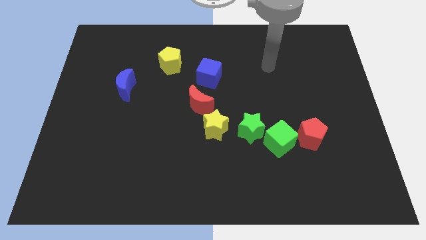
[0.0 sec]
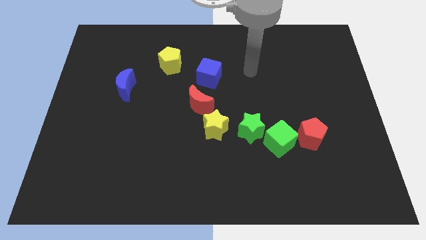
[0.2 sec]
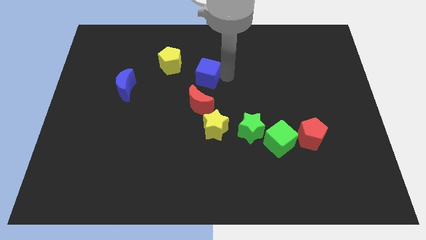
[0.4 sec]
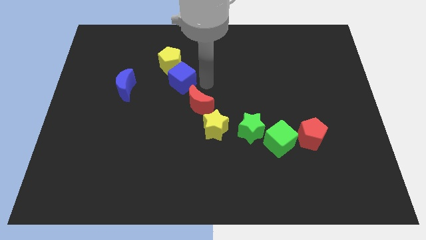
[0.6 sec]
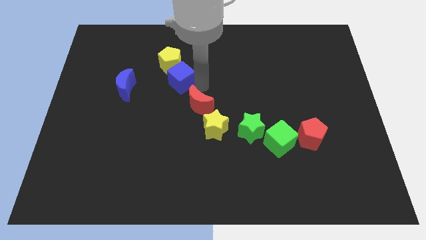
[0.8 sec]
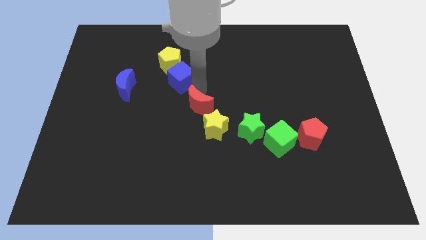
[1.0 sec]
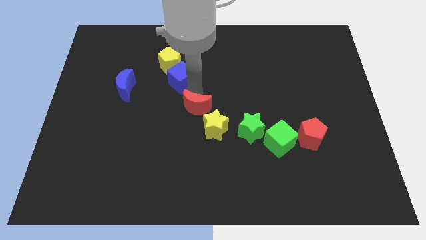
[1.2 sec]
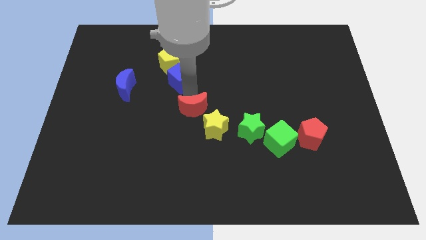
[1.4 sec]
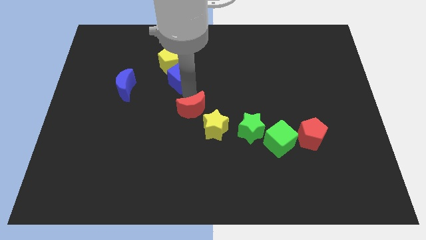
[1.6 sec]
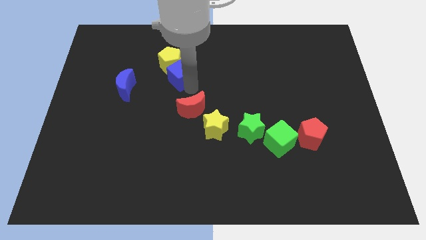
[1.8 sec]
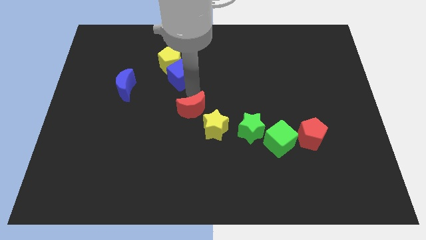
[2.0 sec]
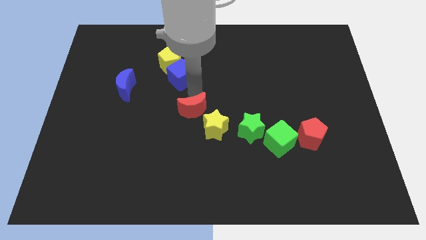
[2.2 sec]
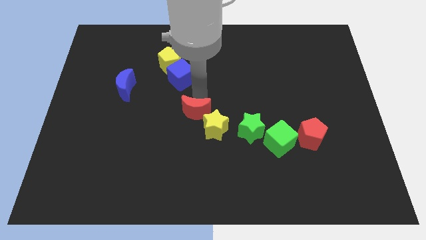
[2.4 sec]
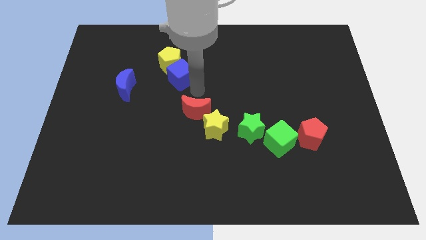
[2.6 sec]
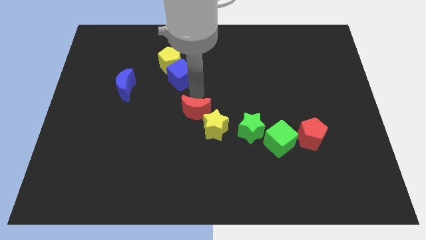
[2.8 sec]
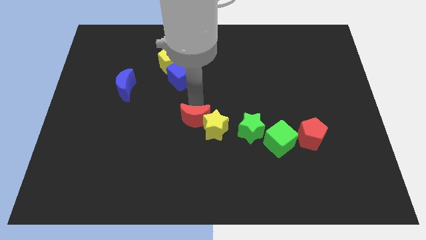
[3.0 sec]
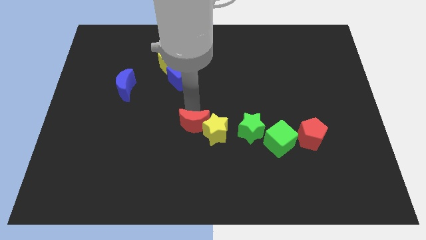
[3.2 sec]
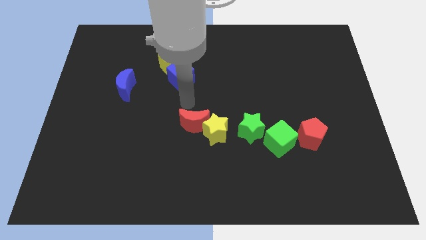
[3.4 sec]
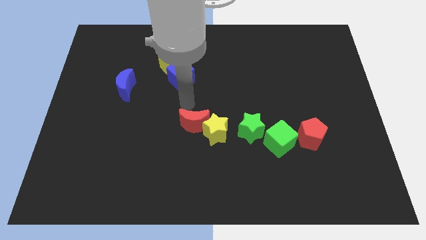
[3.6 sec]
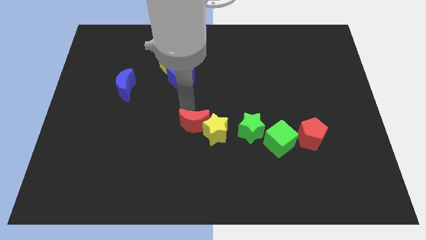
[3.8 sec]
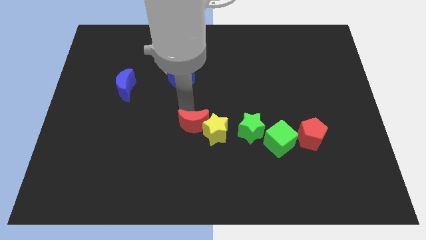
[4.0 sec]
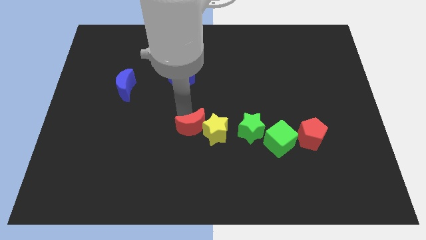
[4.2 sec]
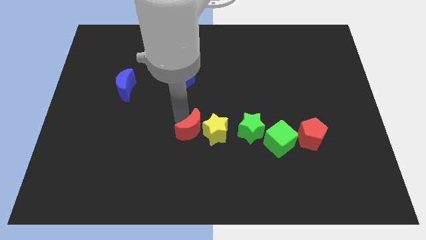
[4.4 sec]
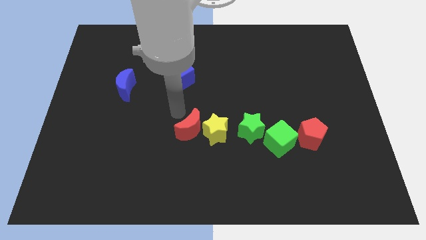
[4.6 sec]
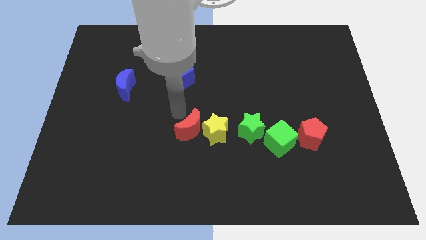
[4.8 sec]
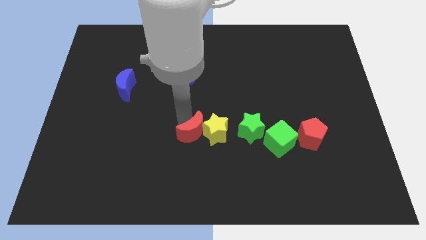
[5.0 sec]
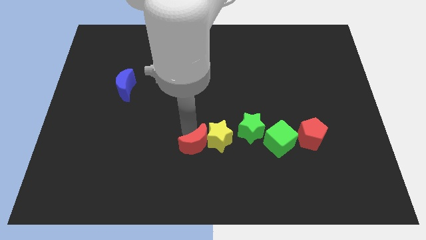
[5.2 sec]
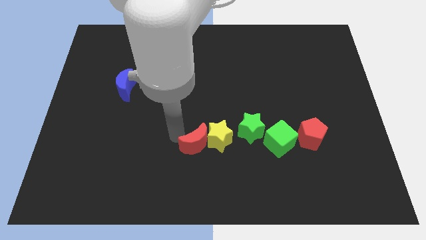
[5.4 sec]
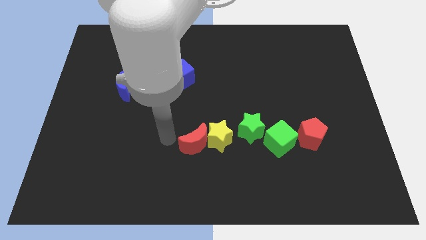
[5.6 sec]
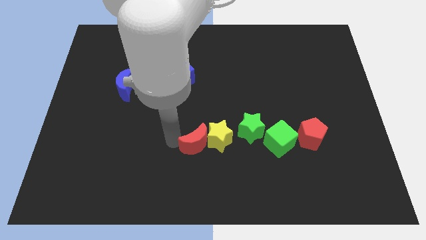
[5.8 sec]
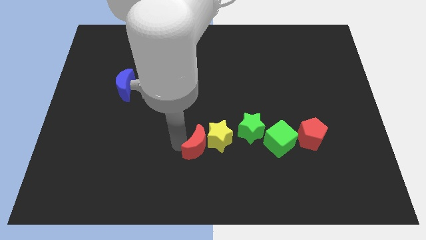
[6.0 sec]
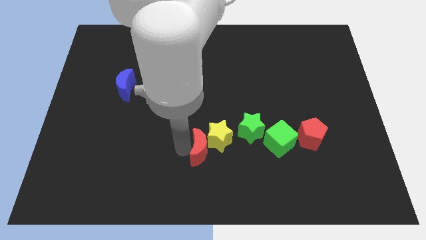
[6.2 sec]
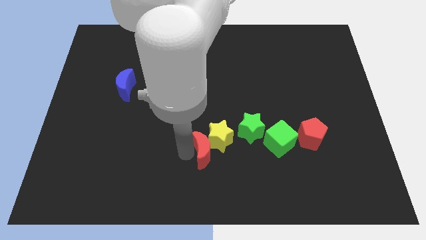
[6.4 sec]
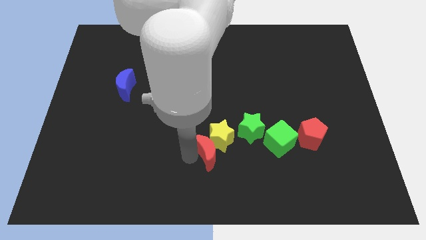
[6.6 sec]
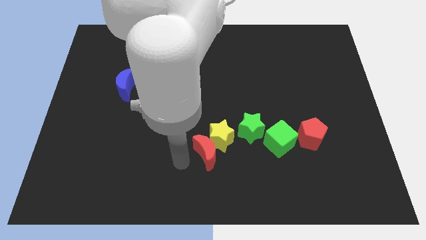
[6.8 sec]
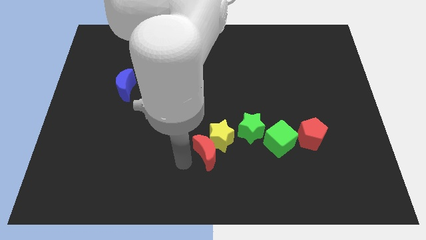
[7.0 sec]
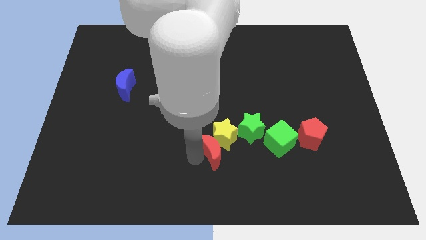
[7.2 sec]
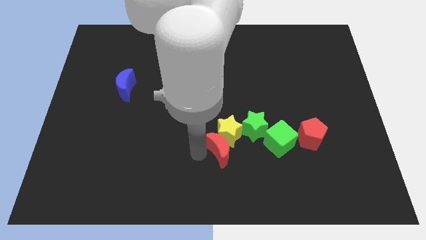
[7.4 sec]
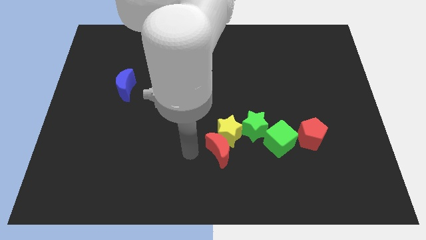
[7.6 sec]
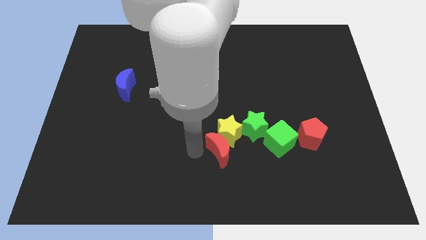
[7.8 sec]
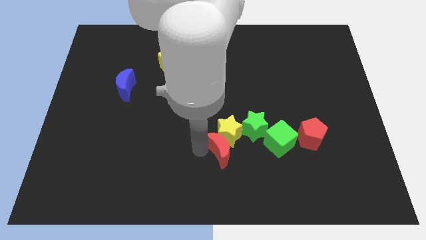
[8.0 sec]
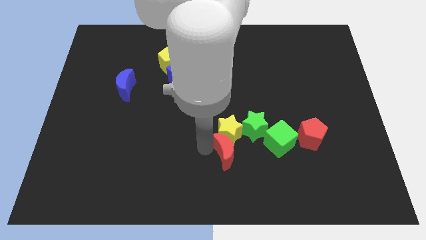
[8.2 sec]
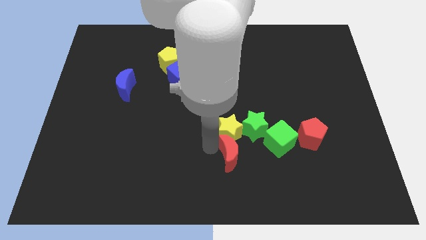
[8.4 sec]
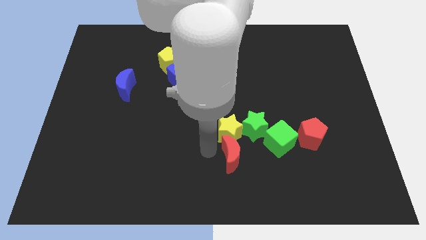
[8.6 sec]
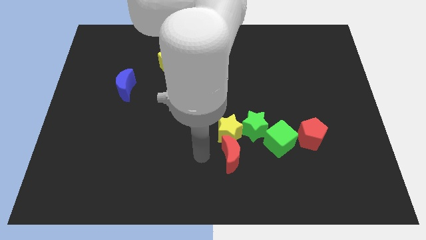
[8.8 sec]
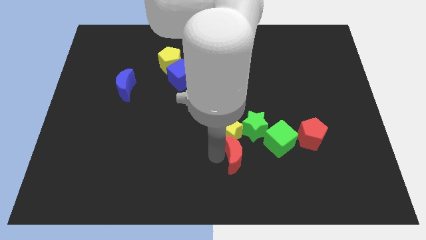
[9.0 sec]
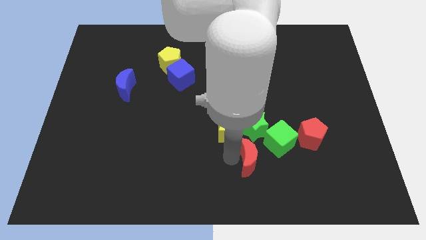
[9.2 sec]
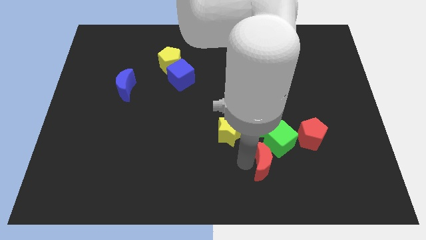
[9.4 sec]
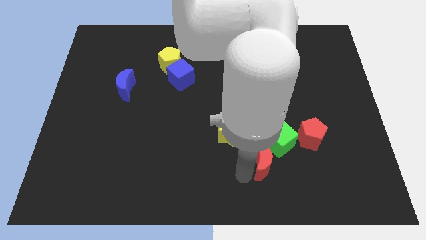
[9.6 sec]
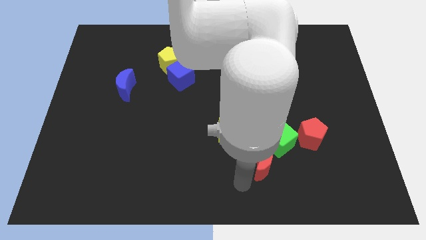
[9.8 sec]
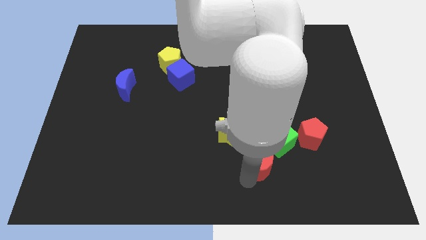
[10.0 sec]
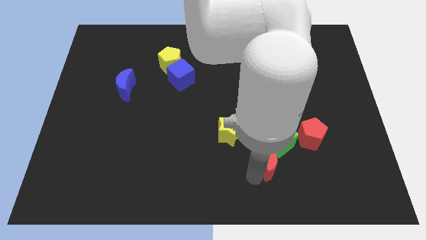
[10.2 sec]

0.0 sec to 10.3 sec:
push the red moon to the bottom right side of the green star
